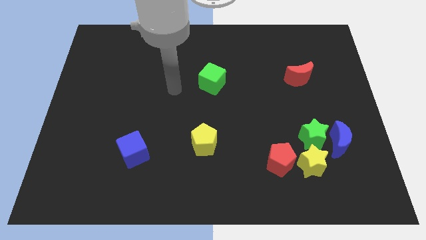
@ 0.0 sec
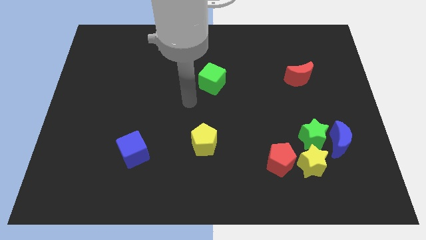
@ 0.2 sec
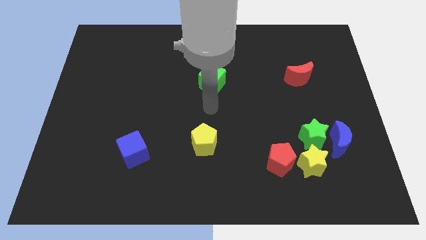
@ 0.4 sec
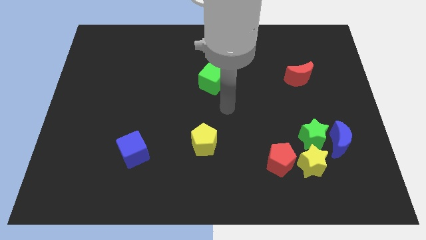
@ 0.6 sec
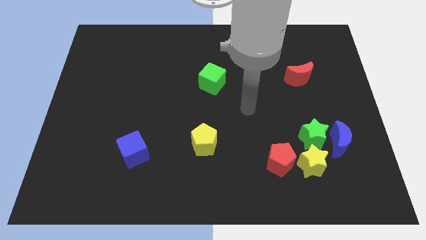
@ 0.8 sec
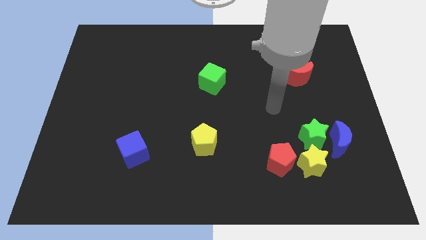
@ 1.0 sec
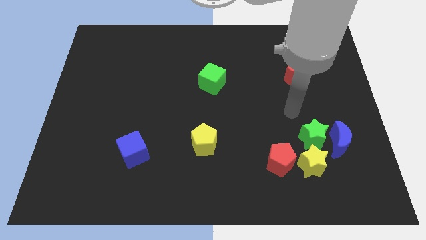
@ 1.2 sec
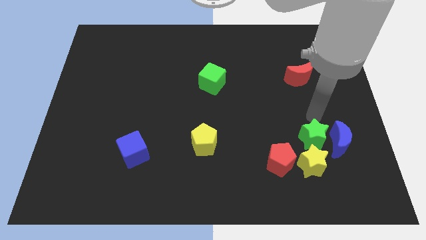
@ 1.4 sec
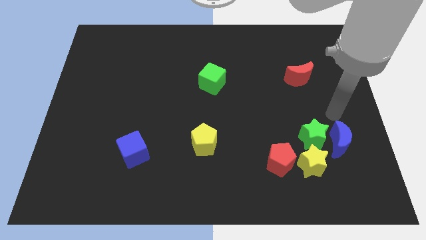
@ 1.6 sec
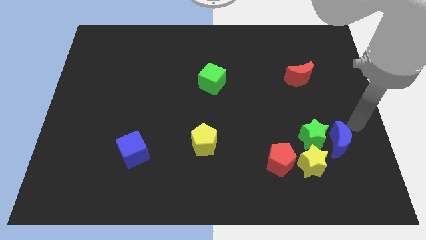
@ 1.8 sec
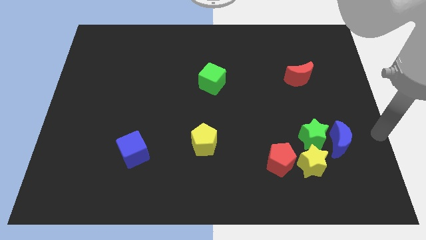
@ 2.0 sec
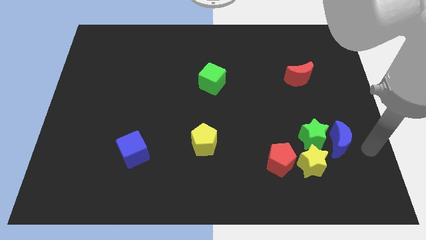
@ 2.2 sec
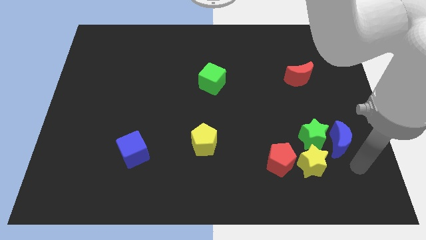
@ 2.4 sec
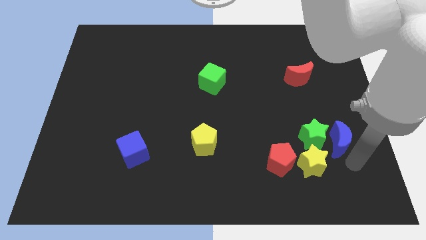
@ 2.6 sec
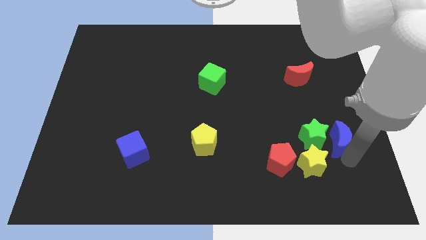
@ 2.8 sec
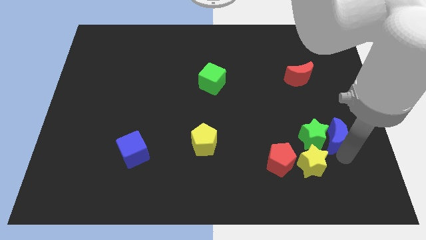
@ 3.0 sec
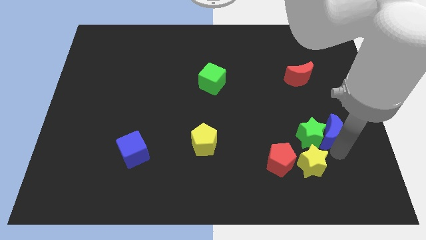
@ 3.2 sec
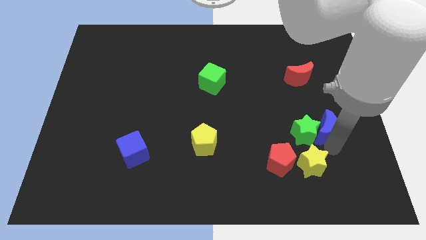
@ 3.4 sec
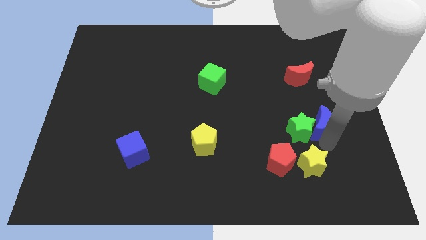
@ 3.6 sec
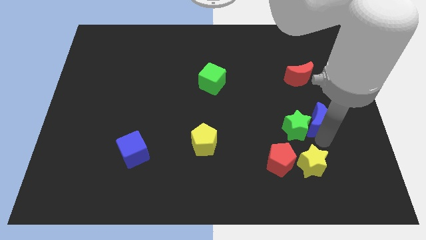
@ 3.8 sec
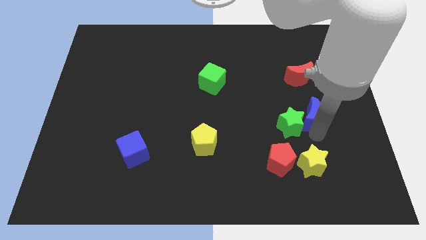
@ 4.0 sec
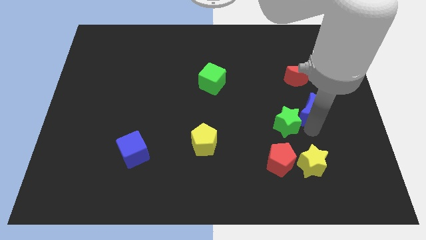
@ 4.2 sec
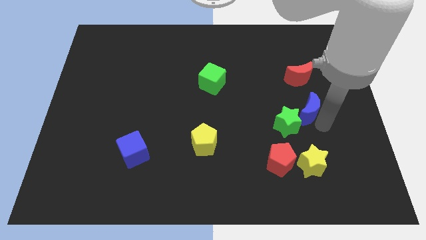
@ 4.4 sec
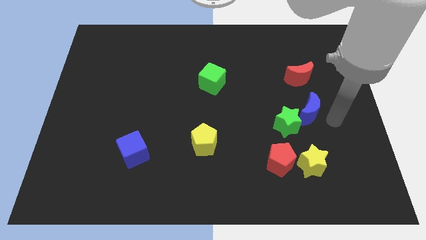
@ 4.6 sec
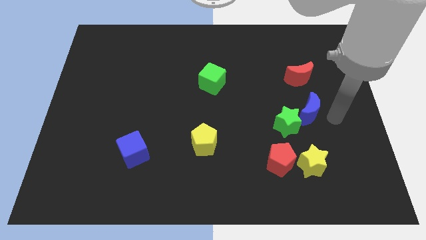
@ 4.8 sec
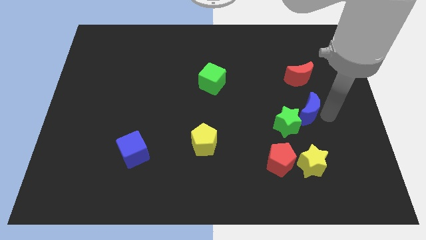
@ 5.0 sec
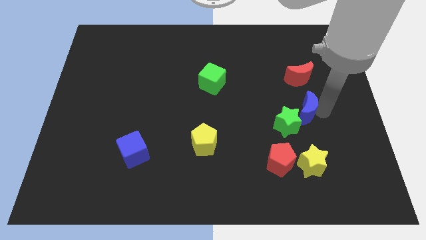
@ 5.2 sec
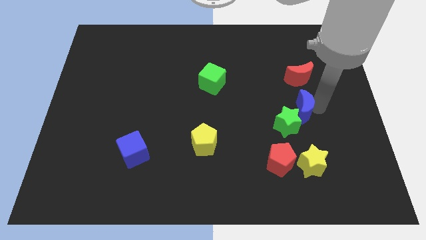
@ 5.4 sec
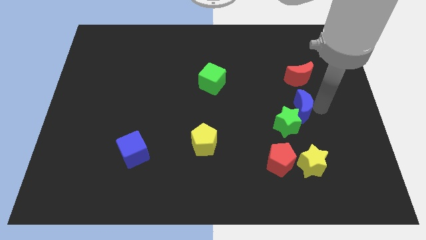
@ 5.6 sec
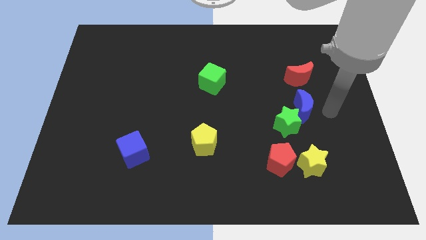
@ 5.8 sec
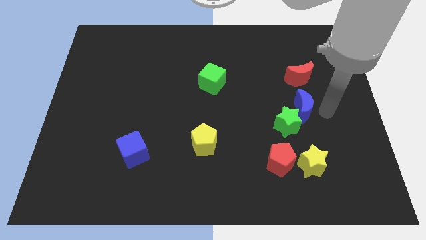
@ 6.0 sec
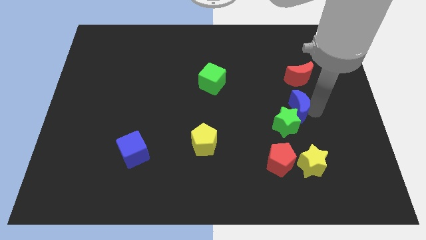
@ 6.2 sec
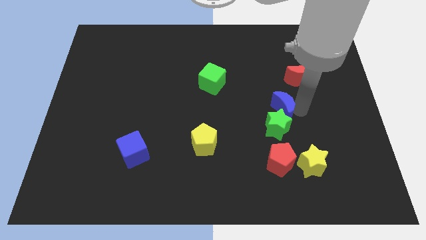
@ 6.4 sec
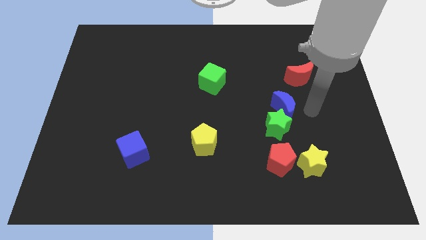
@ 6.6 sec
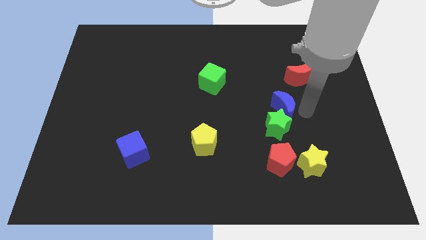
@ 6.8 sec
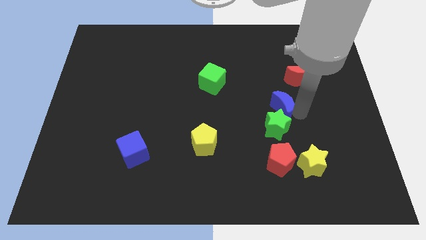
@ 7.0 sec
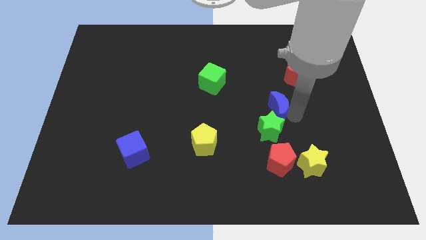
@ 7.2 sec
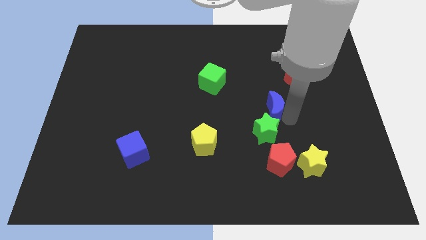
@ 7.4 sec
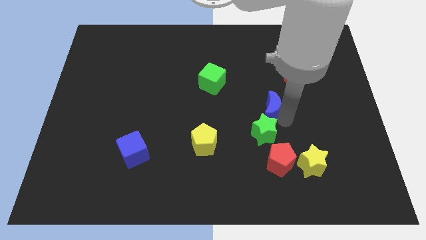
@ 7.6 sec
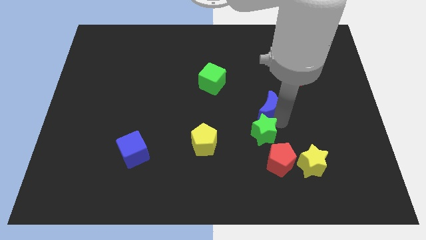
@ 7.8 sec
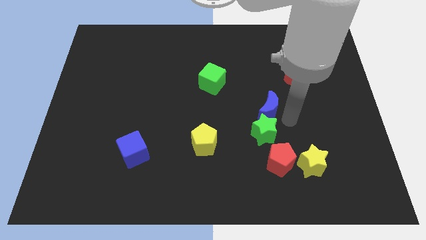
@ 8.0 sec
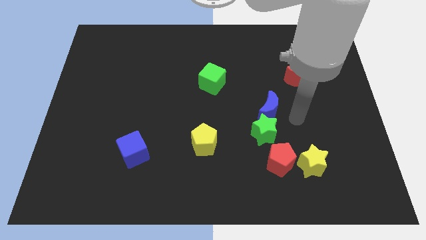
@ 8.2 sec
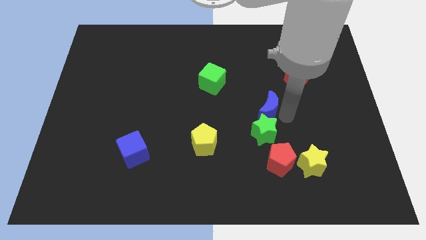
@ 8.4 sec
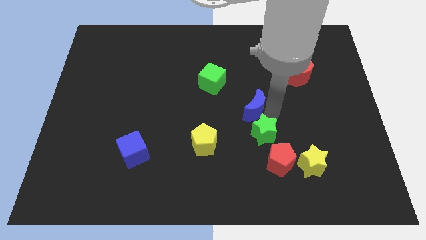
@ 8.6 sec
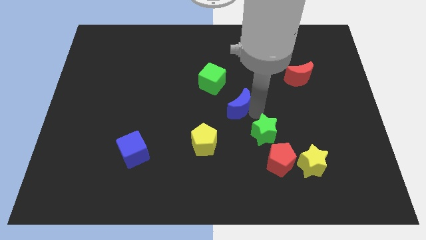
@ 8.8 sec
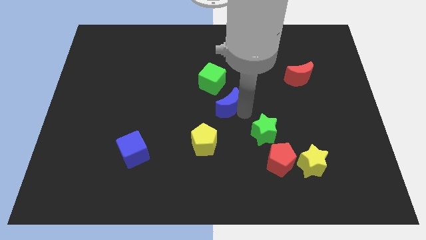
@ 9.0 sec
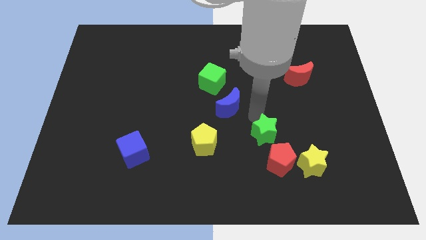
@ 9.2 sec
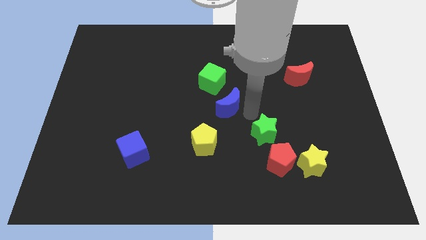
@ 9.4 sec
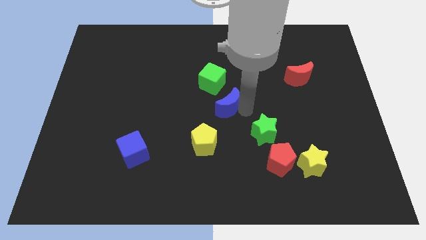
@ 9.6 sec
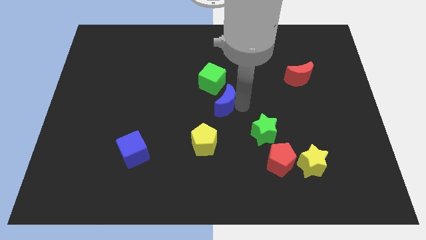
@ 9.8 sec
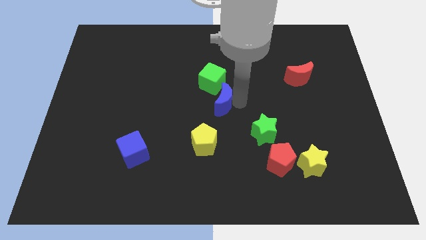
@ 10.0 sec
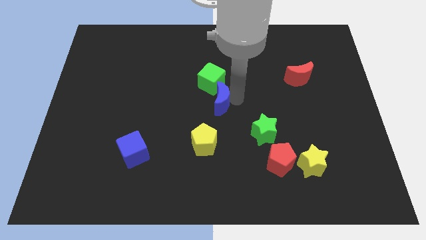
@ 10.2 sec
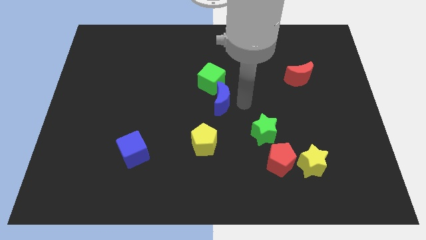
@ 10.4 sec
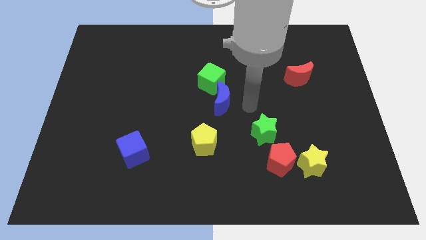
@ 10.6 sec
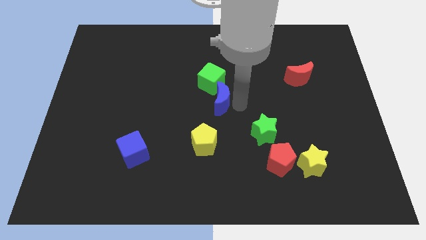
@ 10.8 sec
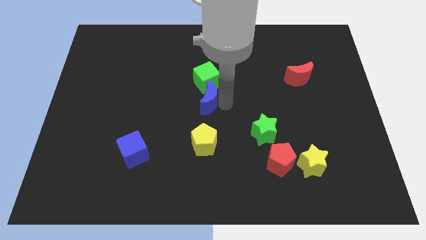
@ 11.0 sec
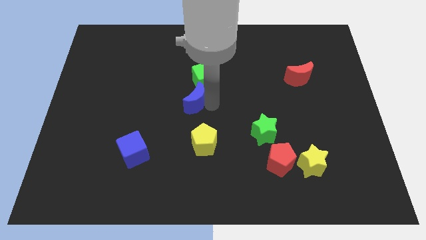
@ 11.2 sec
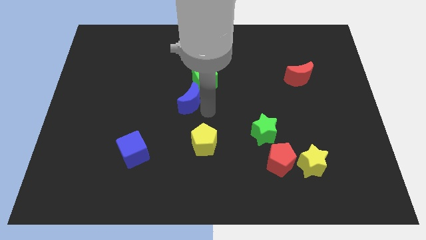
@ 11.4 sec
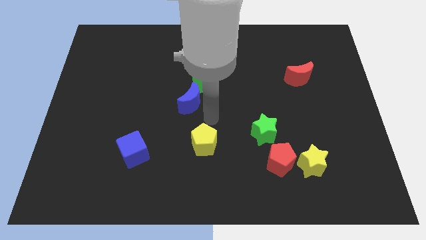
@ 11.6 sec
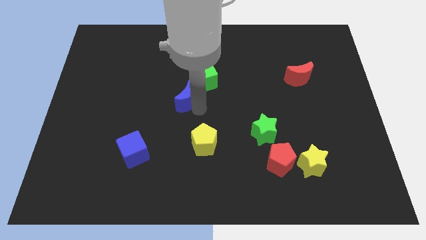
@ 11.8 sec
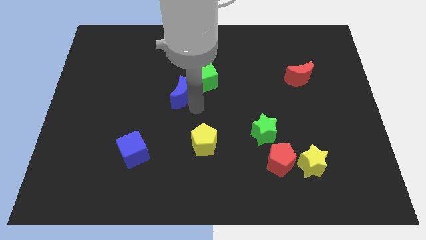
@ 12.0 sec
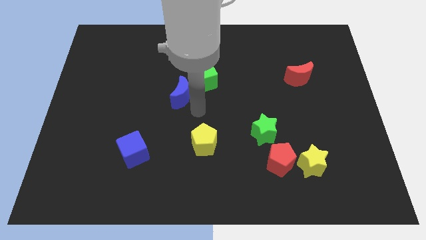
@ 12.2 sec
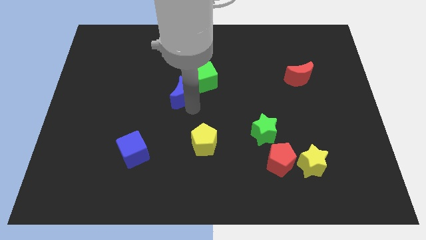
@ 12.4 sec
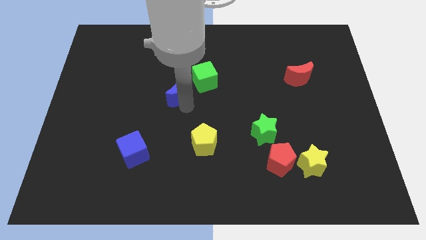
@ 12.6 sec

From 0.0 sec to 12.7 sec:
push the blue moon to the left side of the green cube

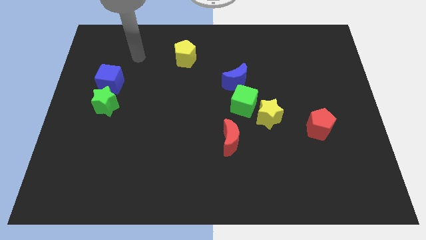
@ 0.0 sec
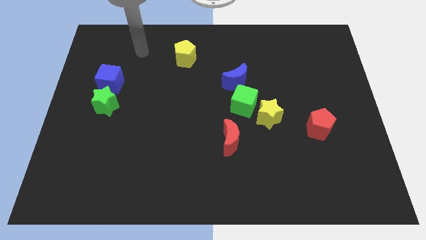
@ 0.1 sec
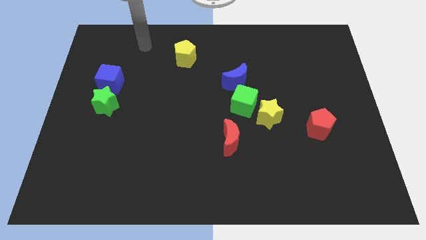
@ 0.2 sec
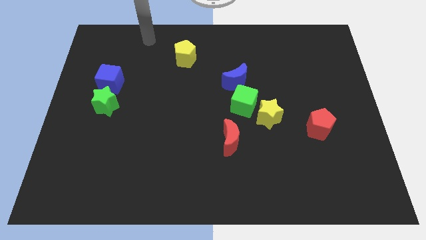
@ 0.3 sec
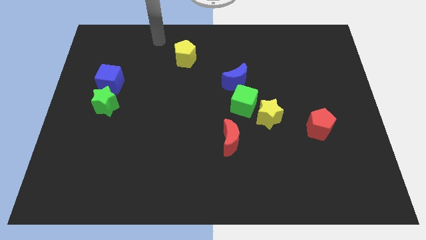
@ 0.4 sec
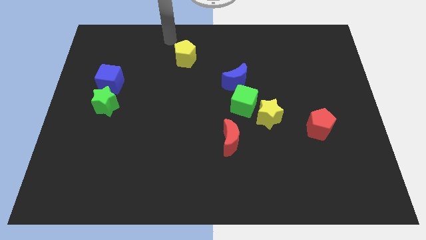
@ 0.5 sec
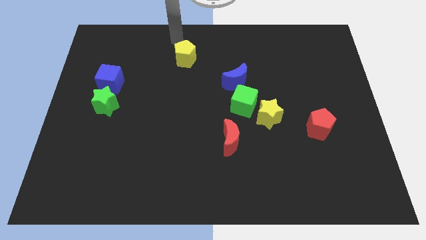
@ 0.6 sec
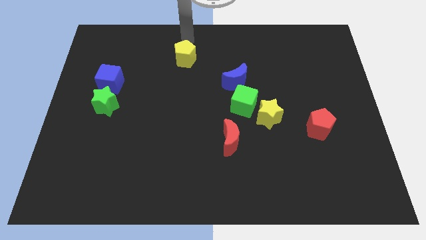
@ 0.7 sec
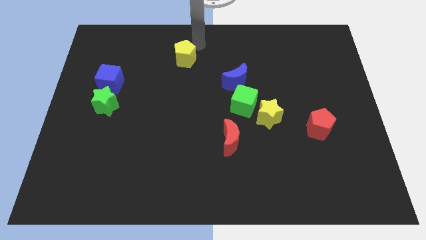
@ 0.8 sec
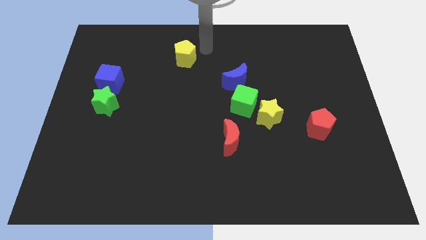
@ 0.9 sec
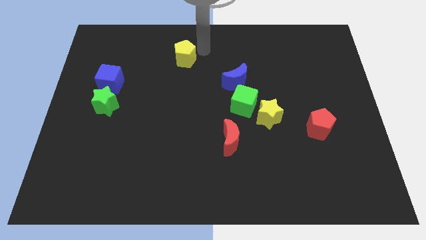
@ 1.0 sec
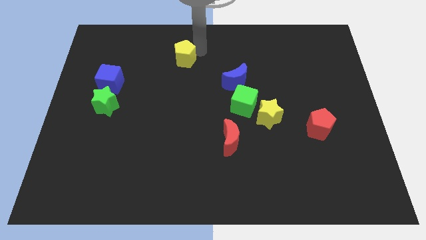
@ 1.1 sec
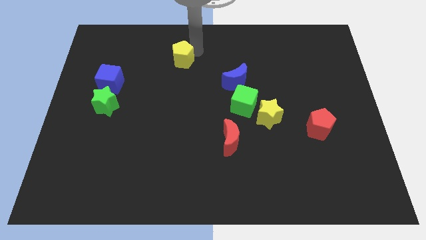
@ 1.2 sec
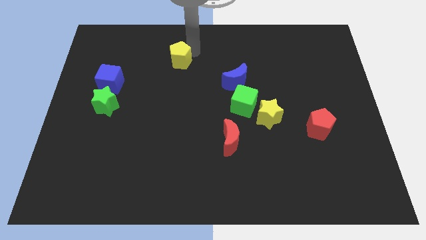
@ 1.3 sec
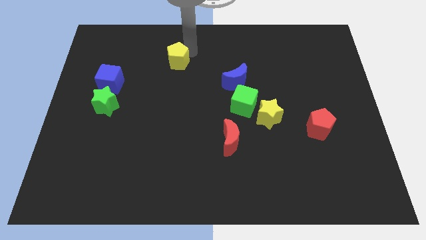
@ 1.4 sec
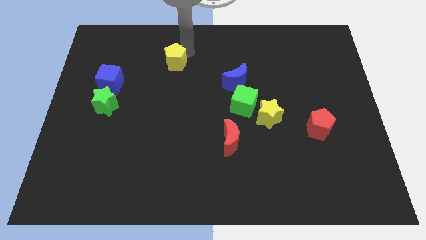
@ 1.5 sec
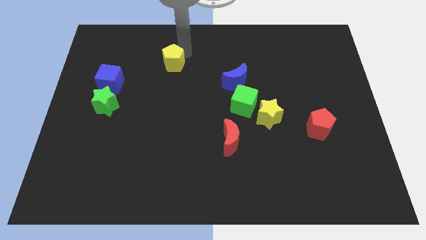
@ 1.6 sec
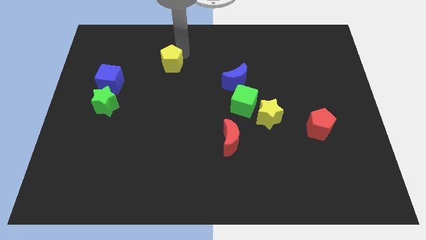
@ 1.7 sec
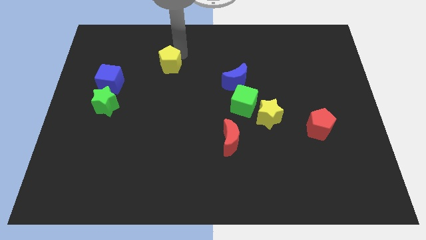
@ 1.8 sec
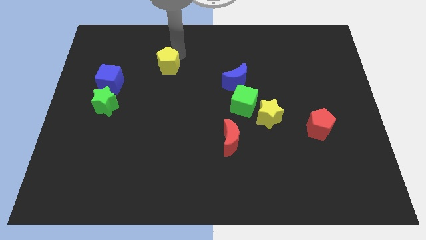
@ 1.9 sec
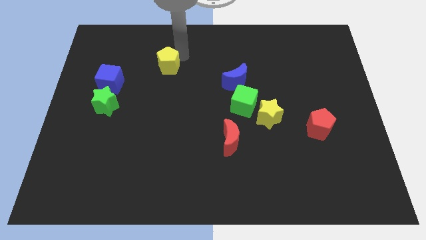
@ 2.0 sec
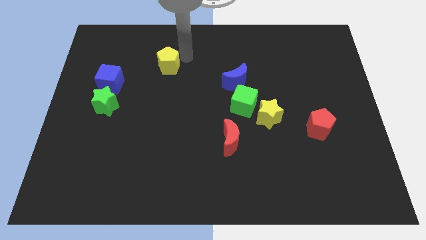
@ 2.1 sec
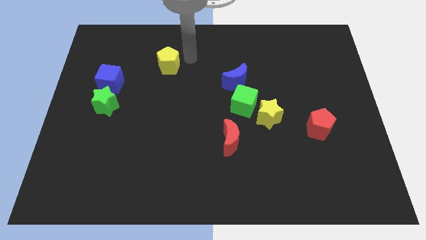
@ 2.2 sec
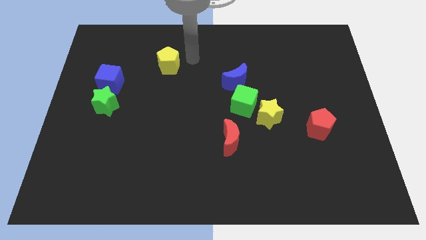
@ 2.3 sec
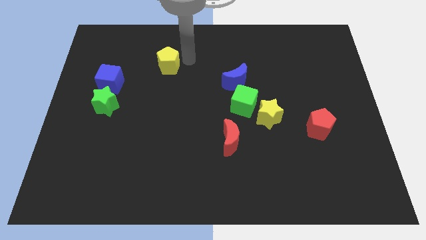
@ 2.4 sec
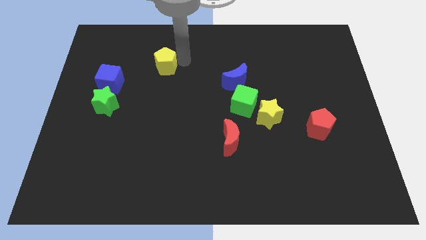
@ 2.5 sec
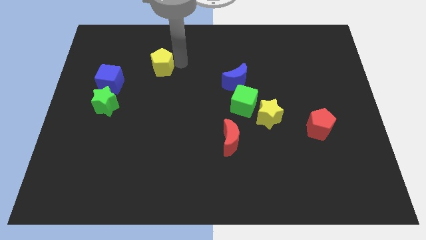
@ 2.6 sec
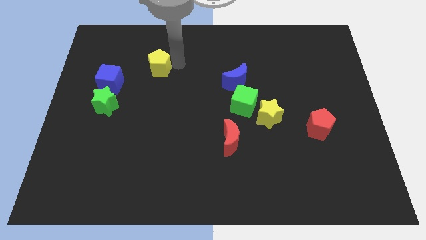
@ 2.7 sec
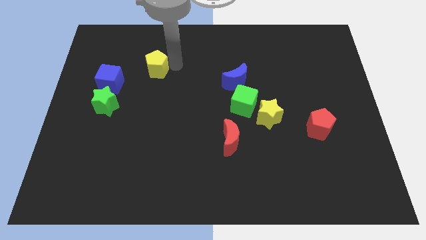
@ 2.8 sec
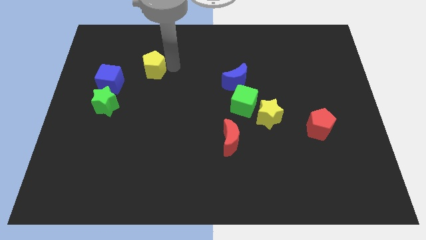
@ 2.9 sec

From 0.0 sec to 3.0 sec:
push the yellow pentagon diagonally up and to the right of the blue cube
